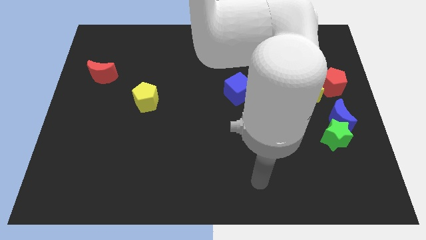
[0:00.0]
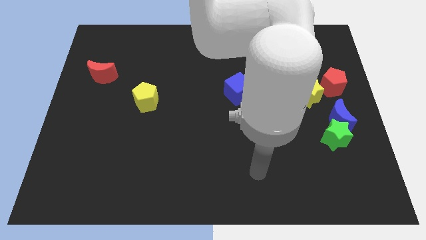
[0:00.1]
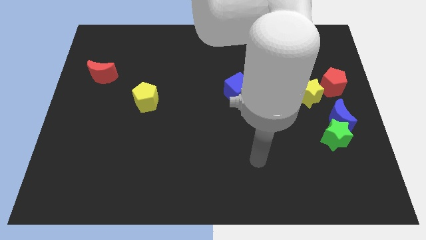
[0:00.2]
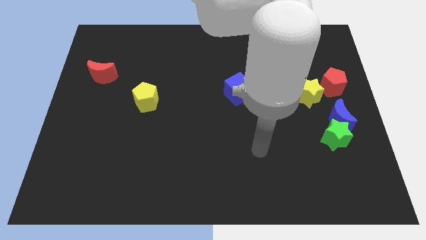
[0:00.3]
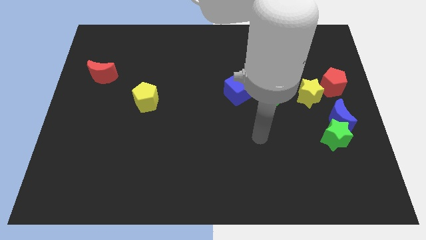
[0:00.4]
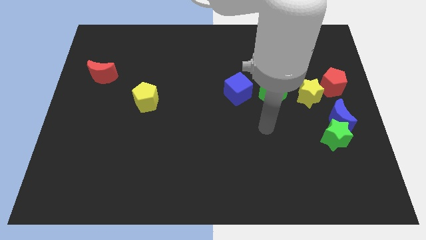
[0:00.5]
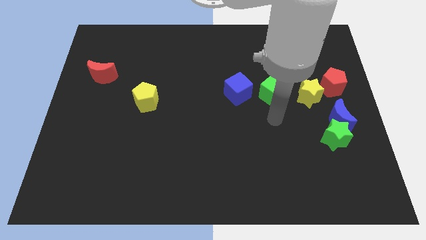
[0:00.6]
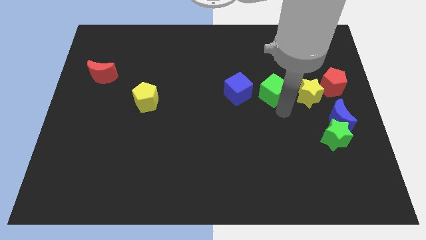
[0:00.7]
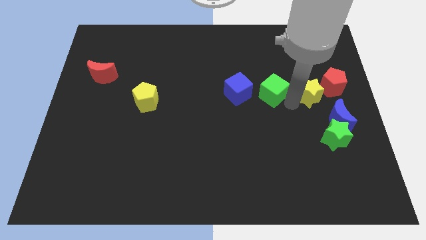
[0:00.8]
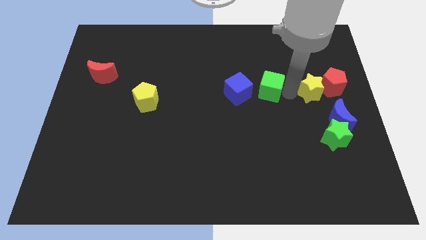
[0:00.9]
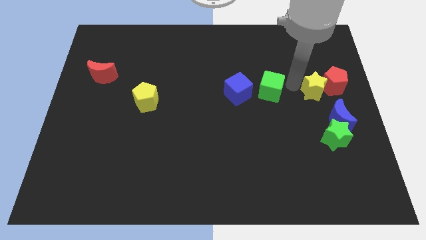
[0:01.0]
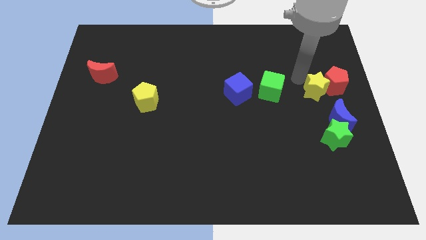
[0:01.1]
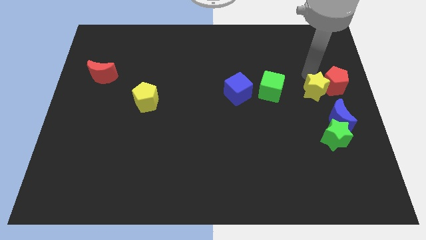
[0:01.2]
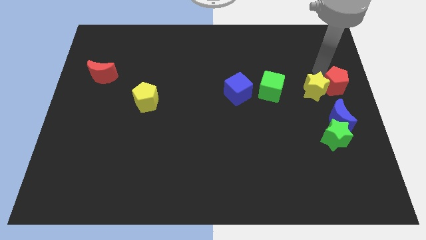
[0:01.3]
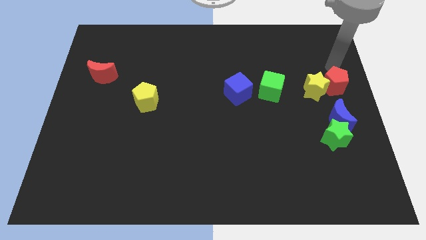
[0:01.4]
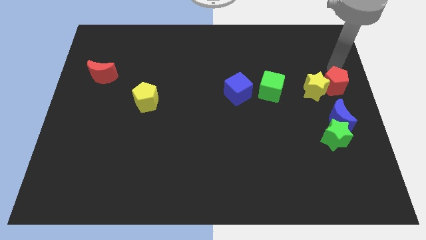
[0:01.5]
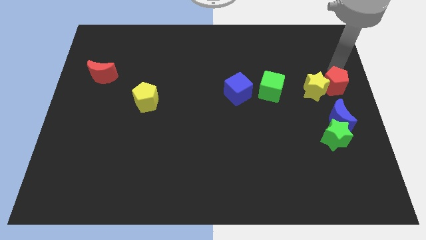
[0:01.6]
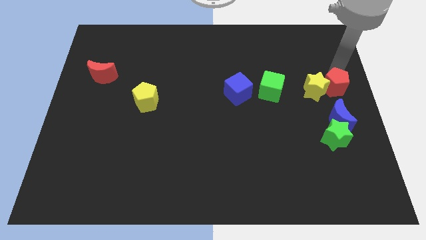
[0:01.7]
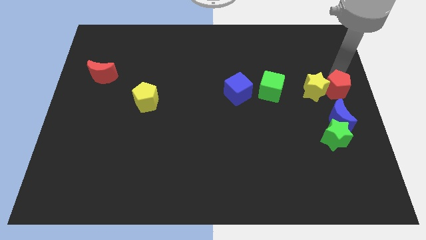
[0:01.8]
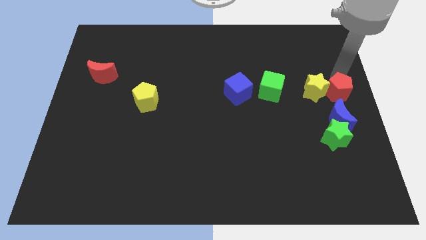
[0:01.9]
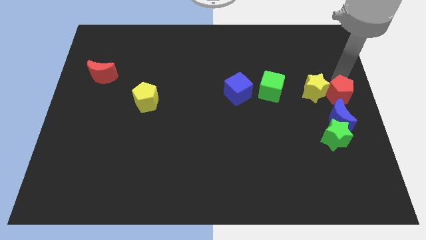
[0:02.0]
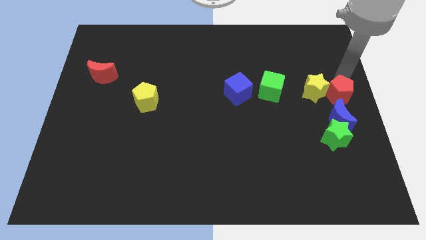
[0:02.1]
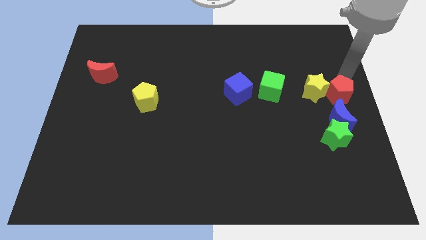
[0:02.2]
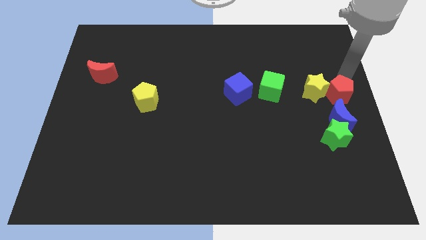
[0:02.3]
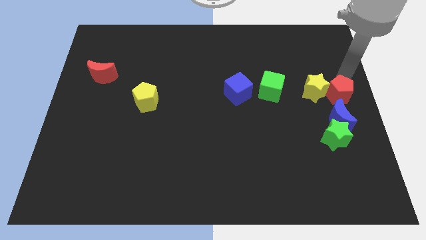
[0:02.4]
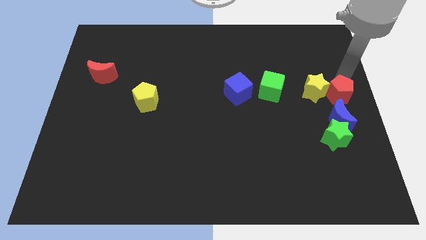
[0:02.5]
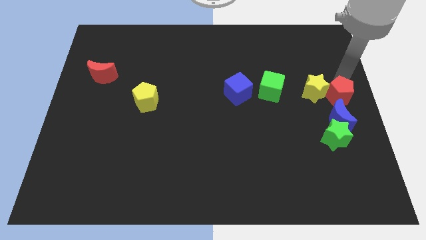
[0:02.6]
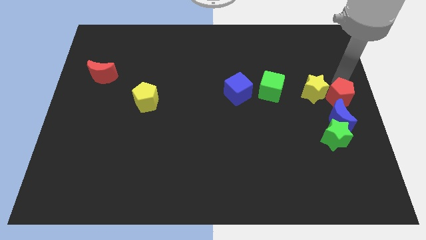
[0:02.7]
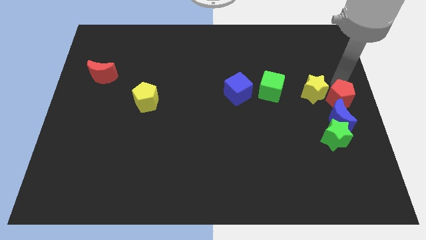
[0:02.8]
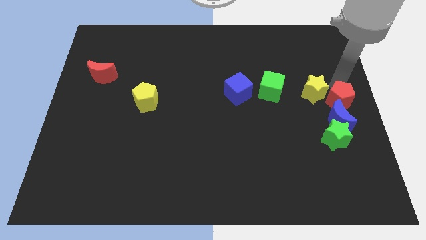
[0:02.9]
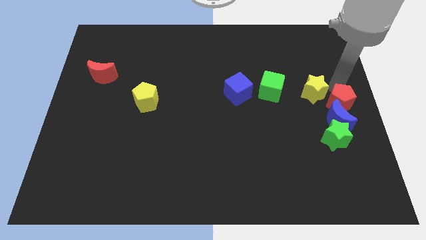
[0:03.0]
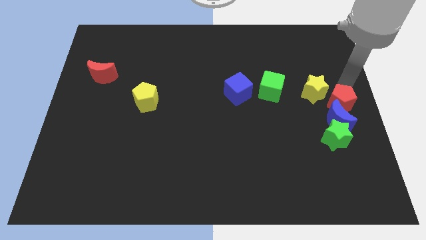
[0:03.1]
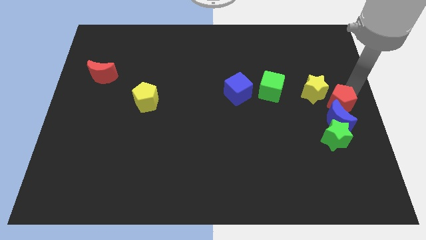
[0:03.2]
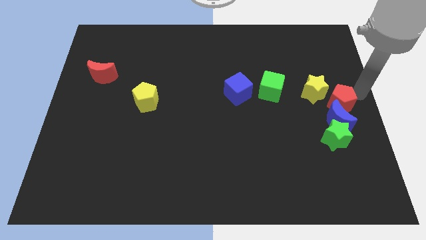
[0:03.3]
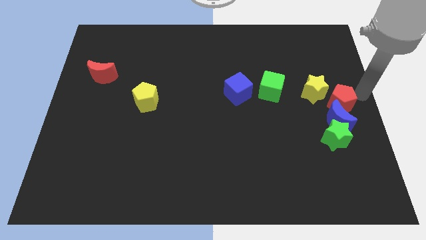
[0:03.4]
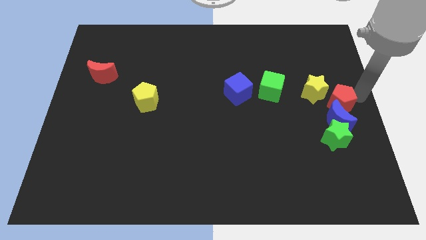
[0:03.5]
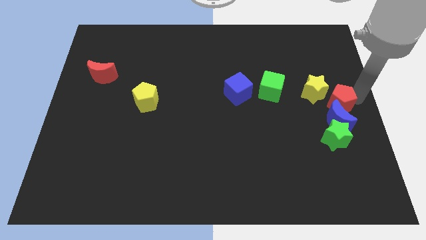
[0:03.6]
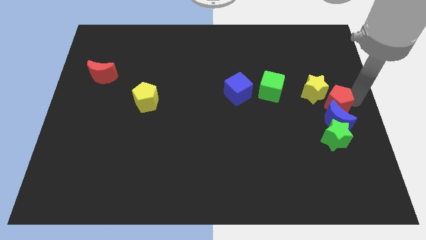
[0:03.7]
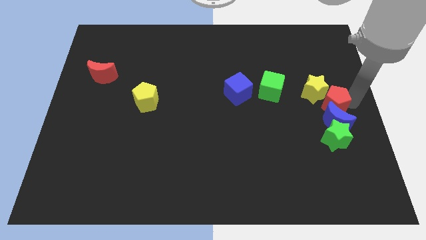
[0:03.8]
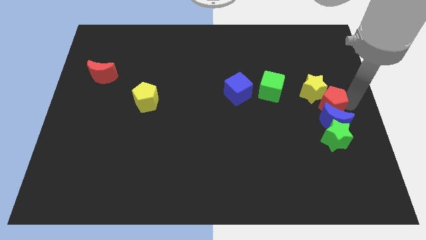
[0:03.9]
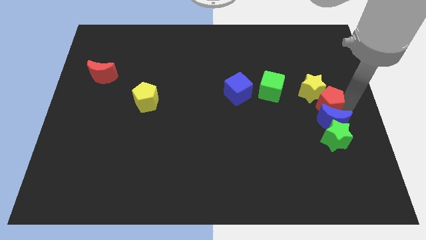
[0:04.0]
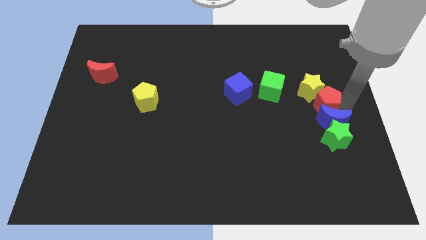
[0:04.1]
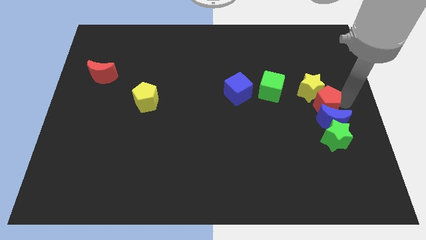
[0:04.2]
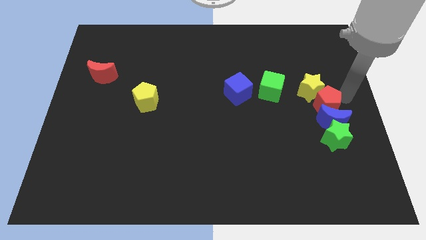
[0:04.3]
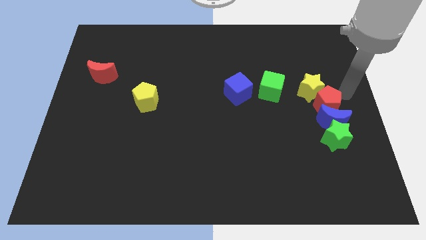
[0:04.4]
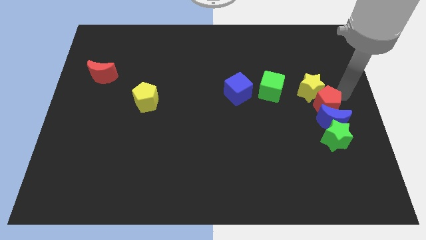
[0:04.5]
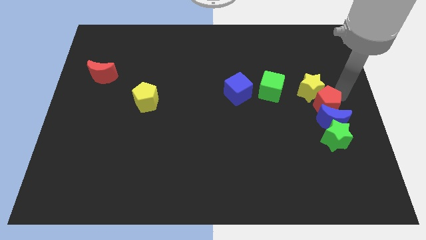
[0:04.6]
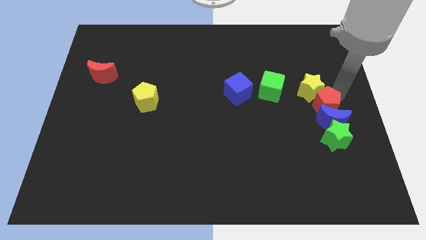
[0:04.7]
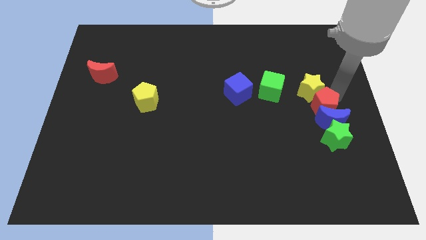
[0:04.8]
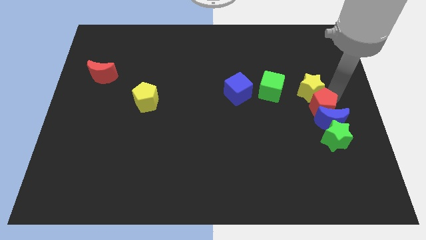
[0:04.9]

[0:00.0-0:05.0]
move the red pentagon a little down and to the left diagonally

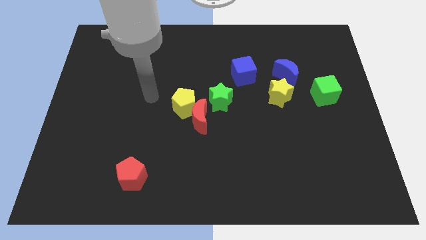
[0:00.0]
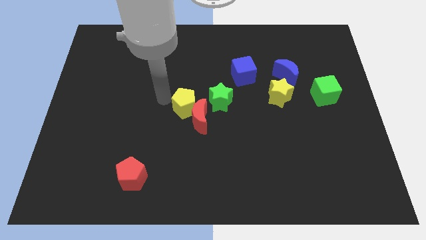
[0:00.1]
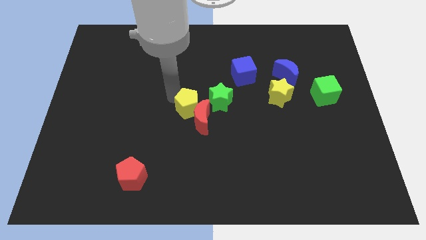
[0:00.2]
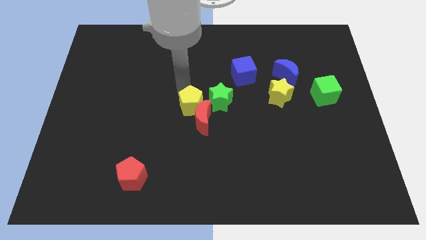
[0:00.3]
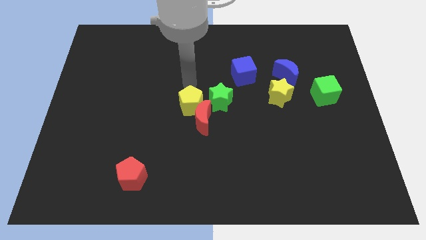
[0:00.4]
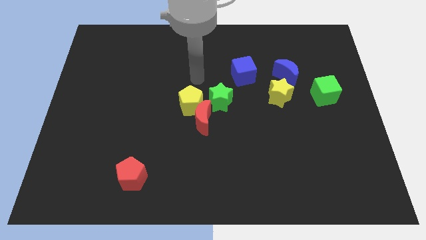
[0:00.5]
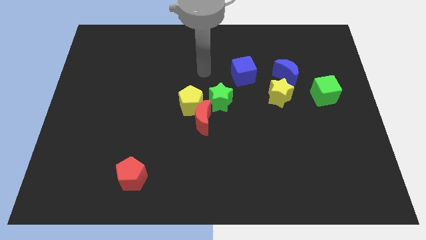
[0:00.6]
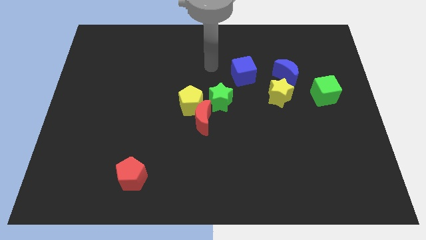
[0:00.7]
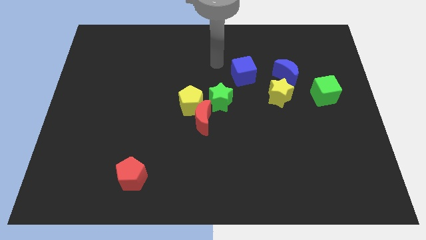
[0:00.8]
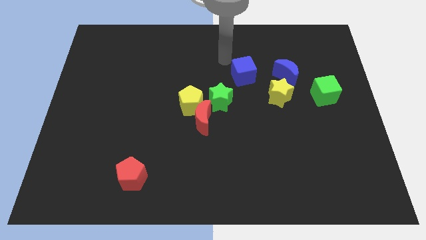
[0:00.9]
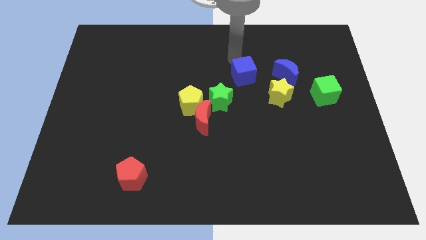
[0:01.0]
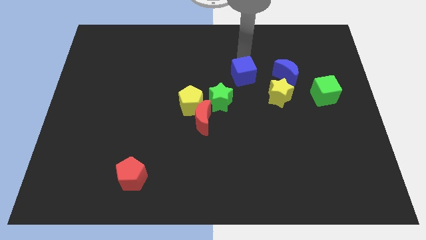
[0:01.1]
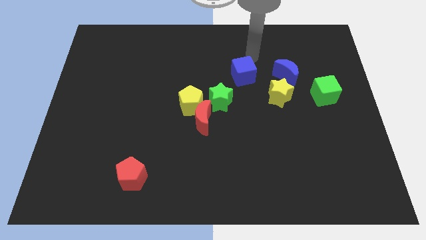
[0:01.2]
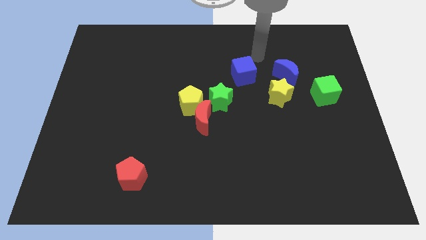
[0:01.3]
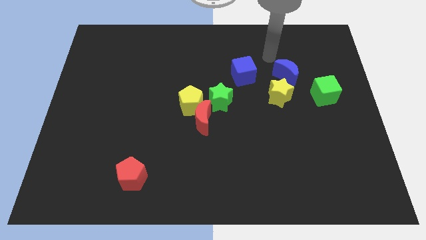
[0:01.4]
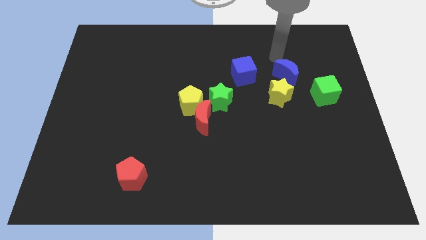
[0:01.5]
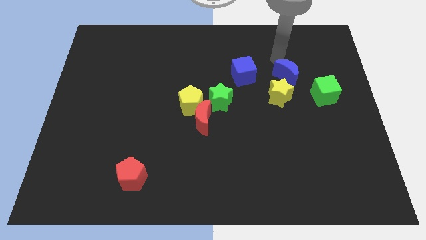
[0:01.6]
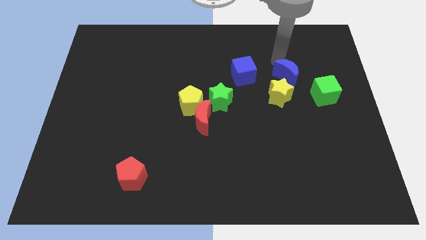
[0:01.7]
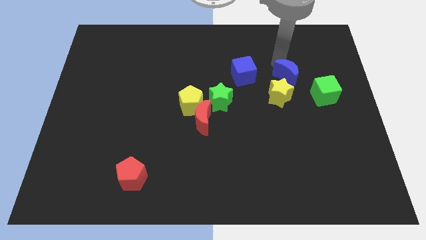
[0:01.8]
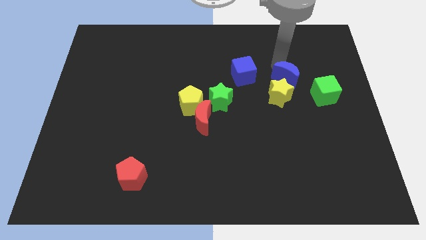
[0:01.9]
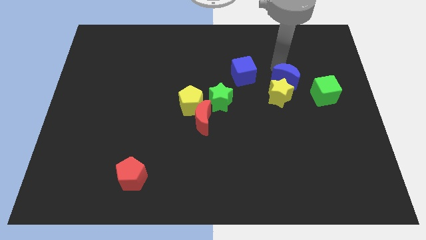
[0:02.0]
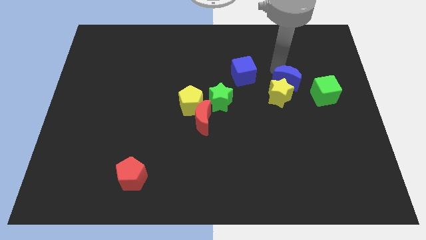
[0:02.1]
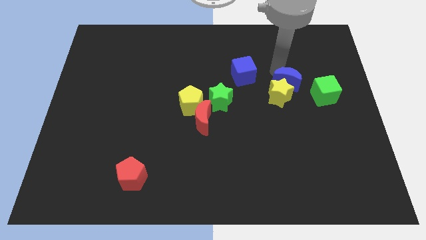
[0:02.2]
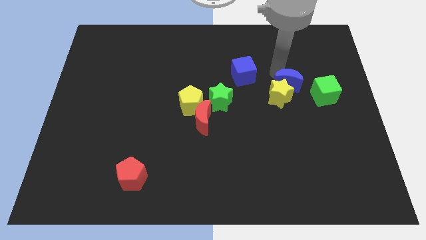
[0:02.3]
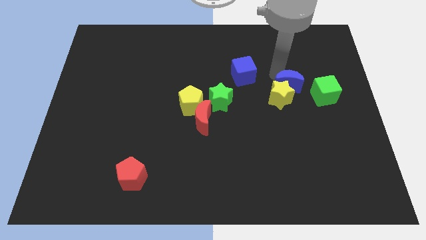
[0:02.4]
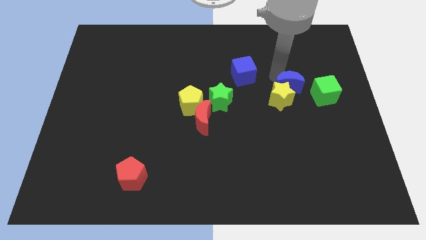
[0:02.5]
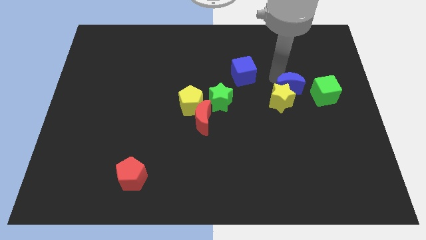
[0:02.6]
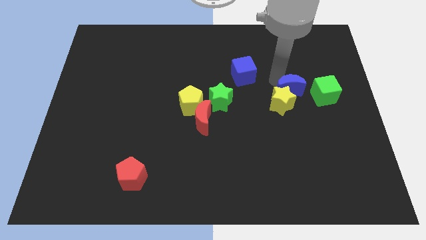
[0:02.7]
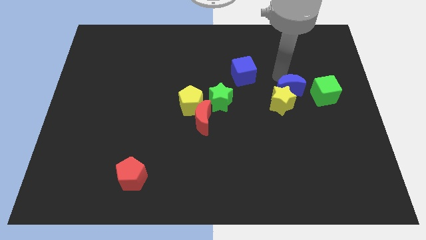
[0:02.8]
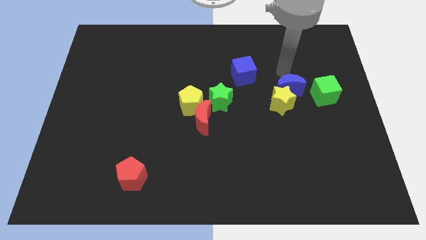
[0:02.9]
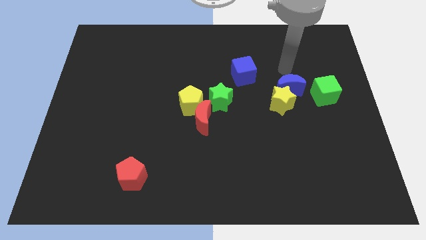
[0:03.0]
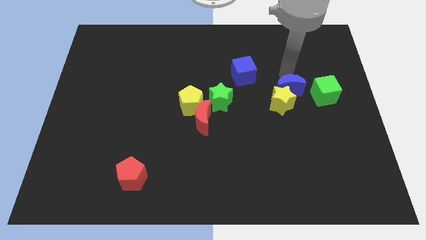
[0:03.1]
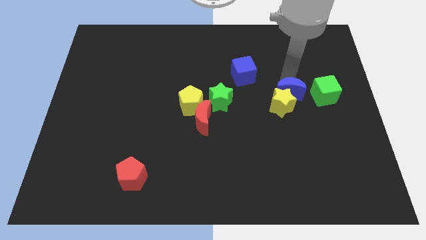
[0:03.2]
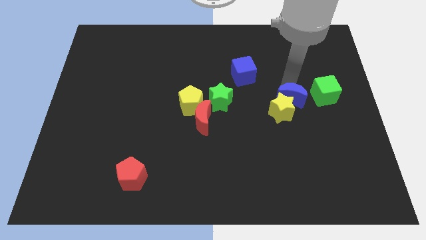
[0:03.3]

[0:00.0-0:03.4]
slide the blue moon a little bit down

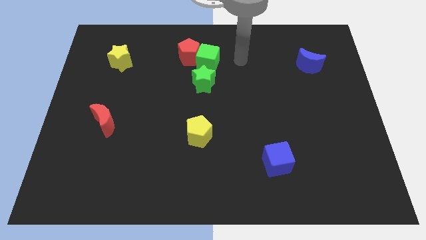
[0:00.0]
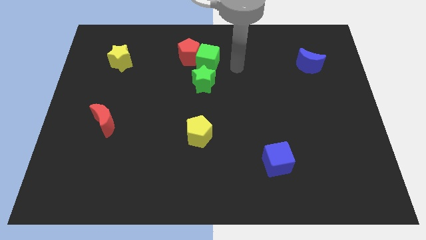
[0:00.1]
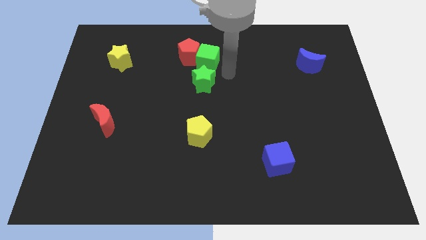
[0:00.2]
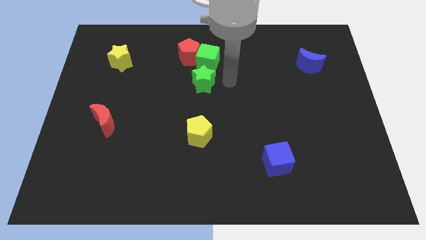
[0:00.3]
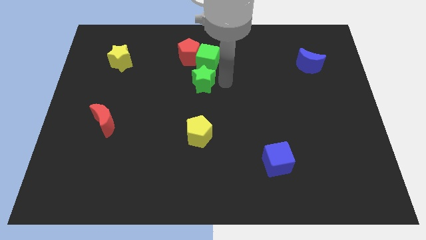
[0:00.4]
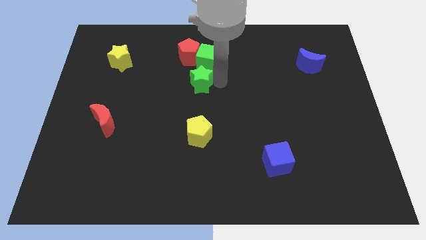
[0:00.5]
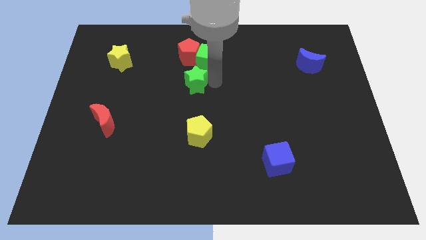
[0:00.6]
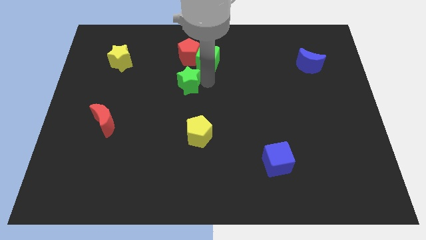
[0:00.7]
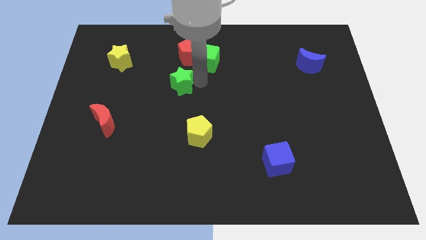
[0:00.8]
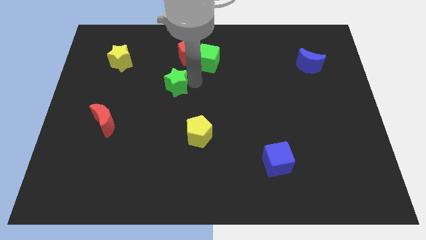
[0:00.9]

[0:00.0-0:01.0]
slightly move the green star to the left
